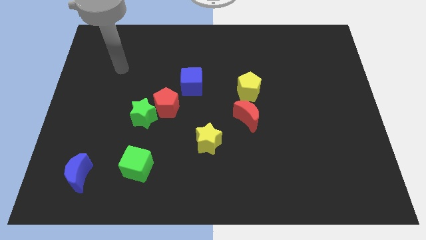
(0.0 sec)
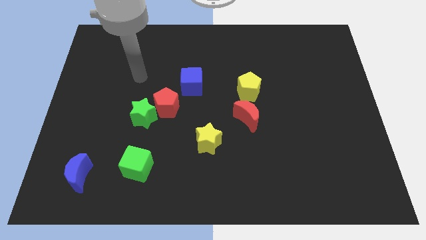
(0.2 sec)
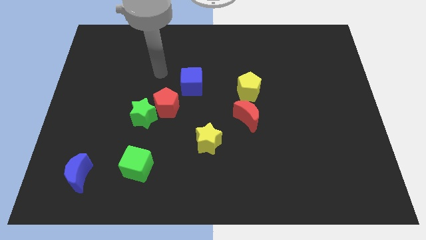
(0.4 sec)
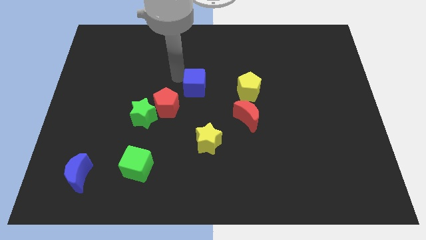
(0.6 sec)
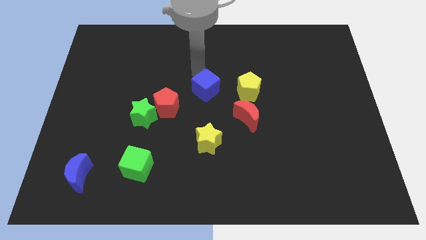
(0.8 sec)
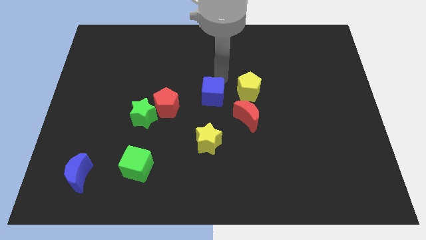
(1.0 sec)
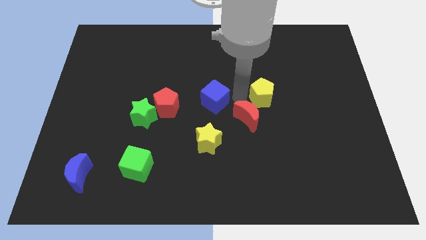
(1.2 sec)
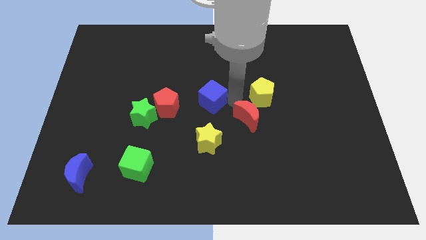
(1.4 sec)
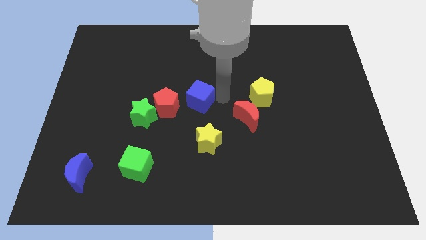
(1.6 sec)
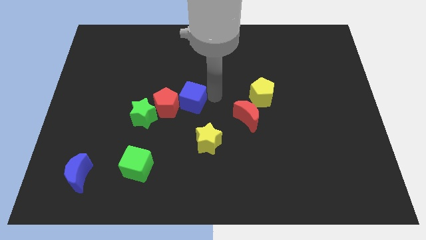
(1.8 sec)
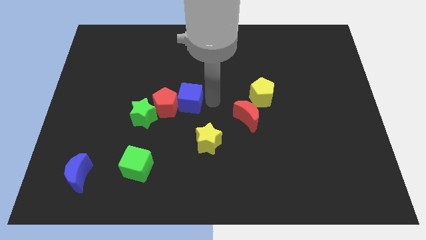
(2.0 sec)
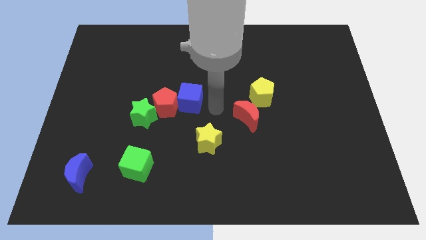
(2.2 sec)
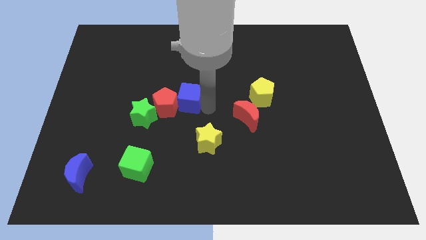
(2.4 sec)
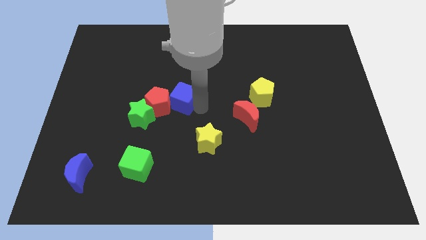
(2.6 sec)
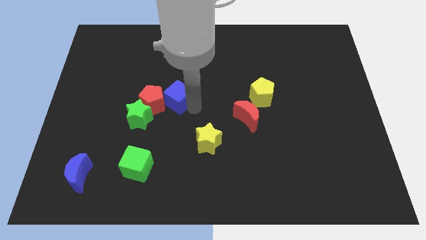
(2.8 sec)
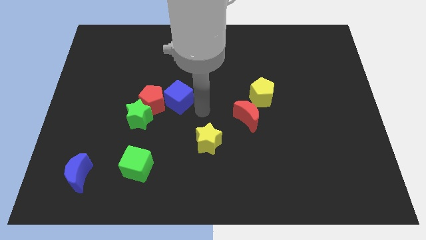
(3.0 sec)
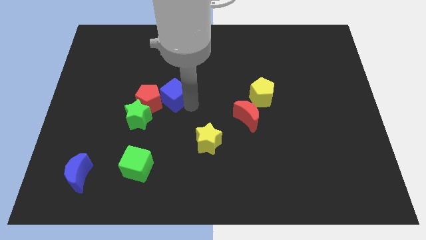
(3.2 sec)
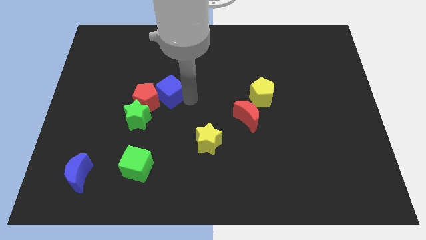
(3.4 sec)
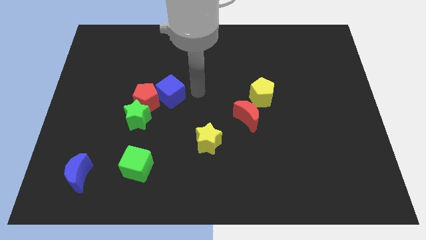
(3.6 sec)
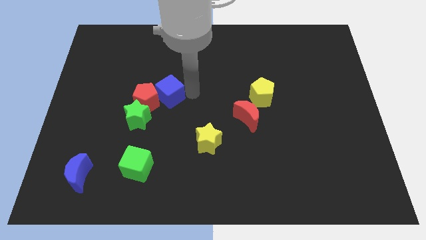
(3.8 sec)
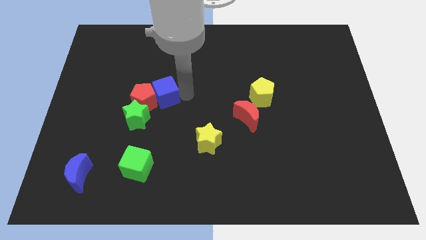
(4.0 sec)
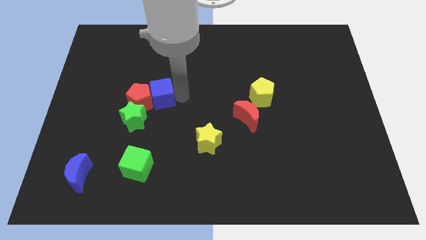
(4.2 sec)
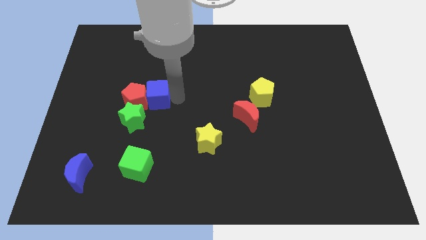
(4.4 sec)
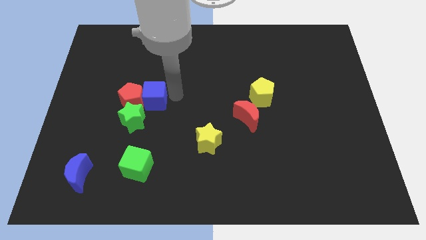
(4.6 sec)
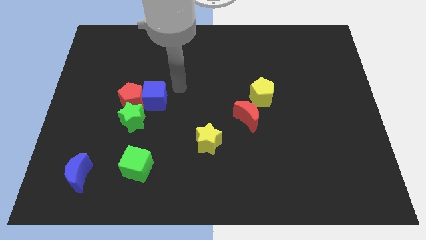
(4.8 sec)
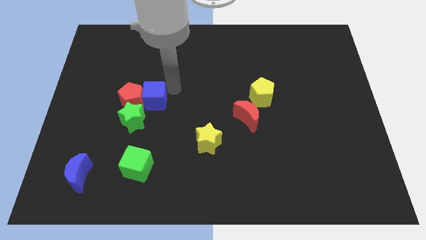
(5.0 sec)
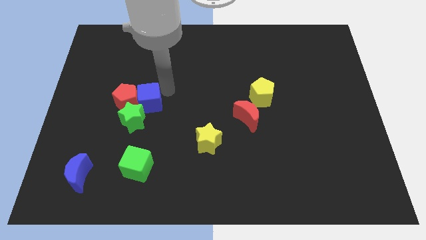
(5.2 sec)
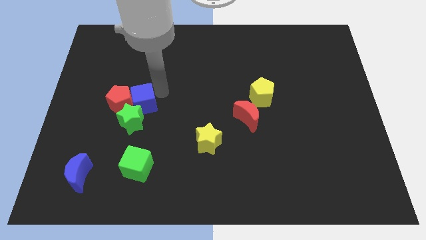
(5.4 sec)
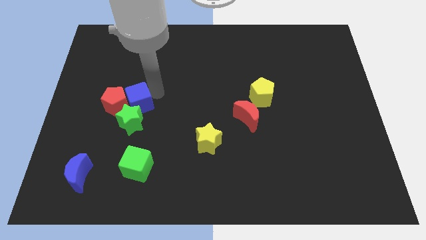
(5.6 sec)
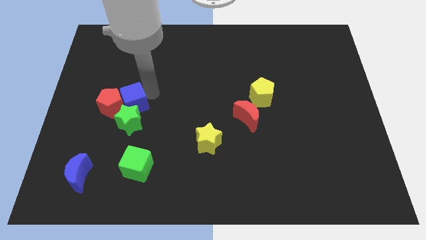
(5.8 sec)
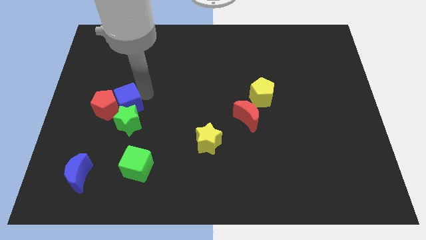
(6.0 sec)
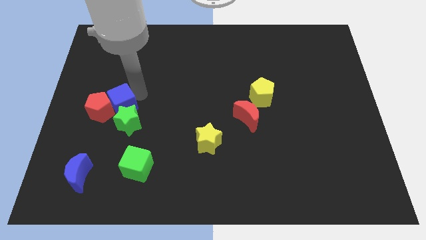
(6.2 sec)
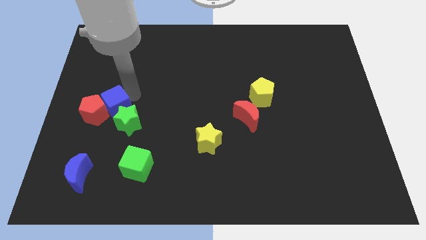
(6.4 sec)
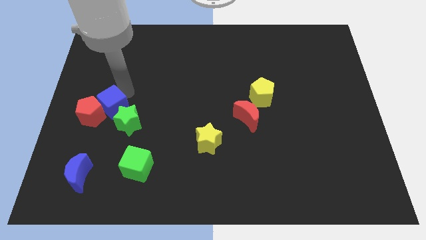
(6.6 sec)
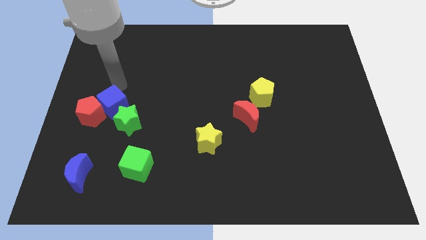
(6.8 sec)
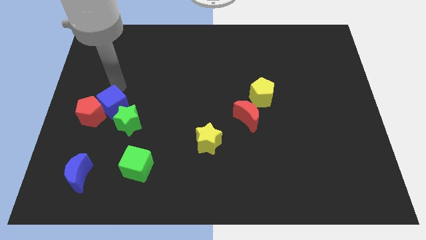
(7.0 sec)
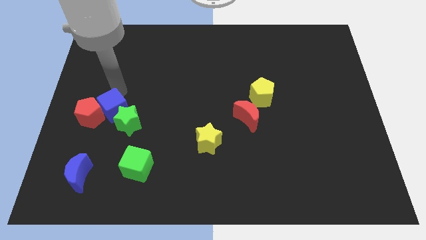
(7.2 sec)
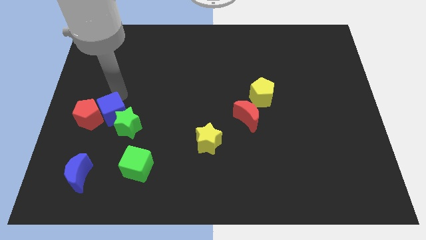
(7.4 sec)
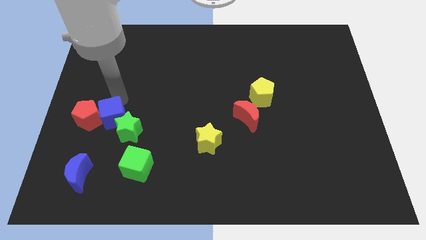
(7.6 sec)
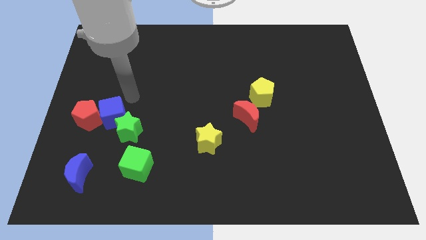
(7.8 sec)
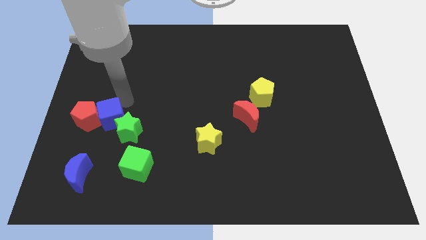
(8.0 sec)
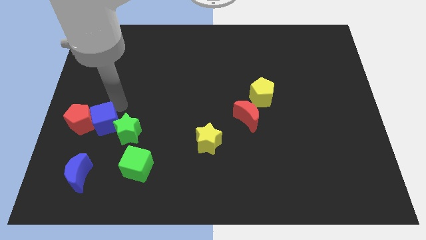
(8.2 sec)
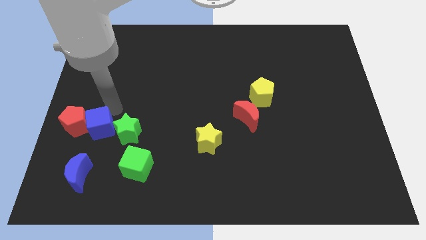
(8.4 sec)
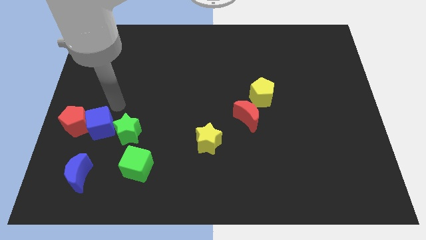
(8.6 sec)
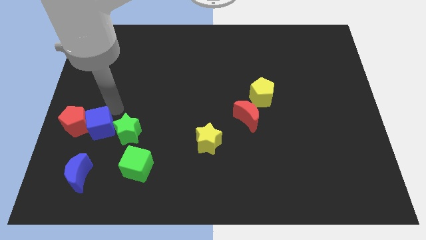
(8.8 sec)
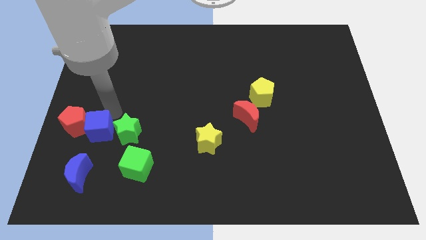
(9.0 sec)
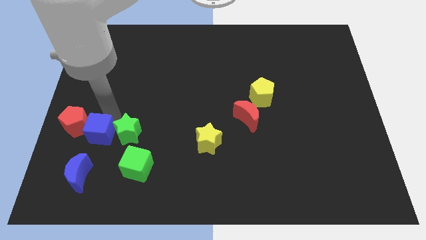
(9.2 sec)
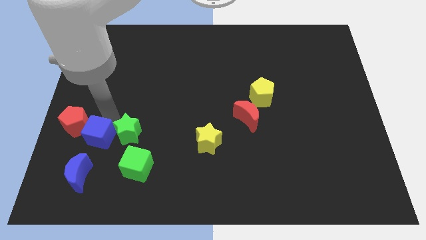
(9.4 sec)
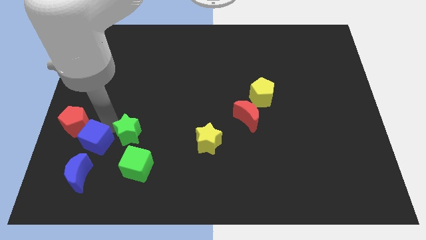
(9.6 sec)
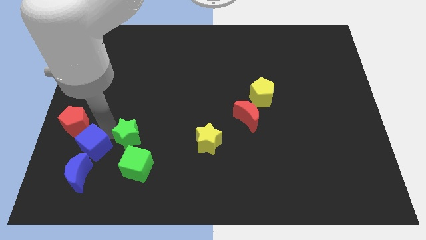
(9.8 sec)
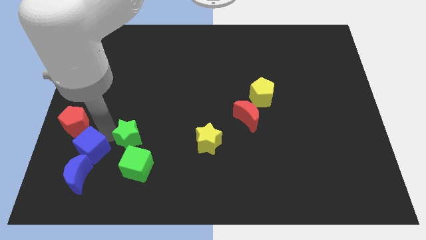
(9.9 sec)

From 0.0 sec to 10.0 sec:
move the blue cube to the left of the green cube

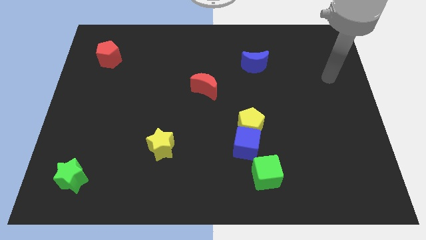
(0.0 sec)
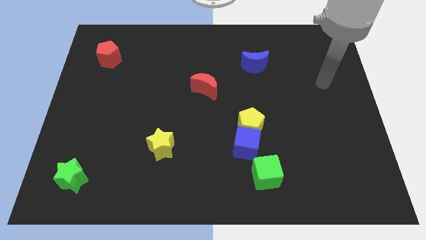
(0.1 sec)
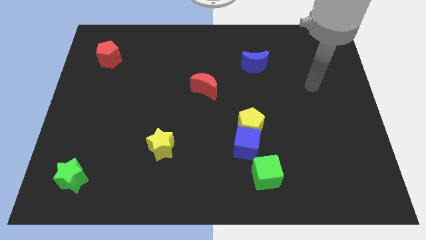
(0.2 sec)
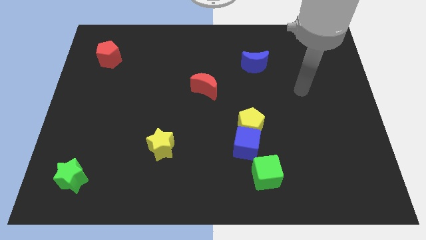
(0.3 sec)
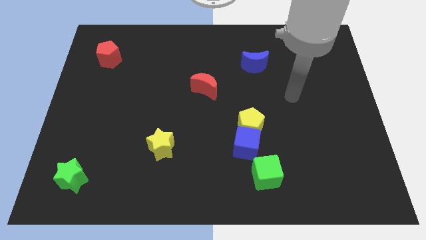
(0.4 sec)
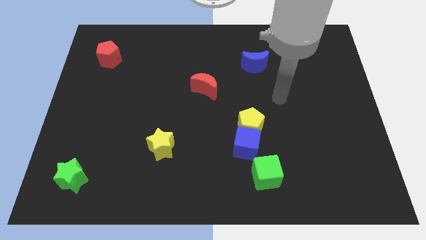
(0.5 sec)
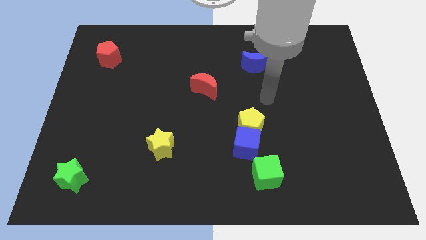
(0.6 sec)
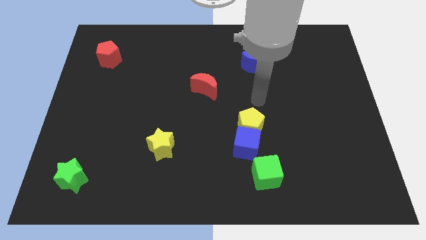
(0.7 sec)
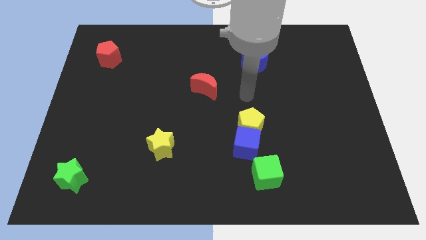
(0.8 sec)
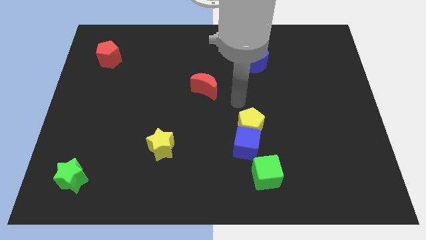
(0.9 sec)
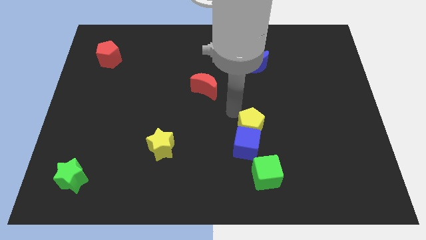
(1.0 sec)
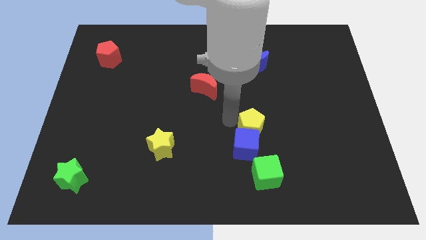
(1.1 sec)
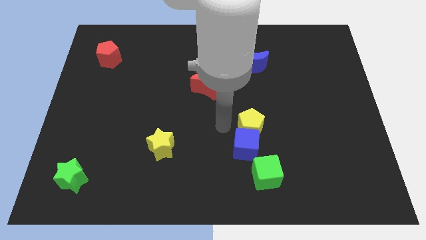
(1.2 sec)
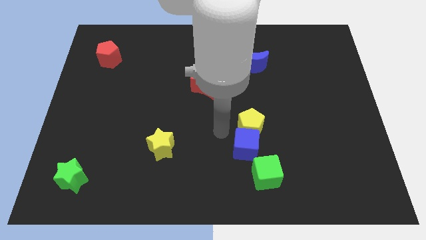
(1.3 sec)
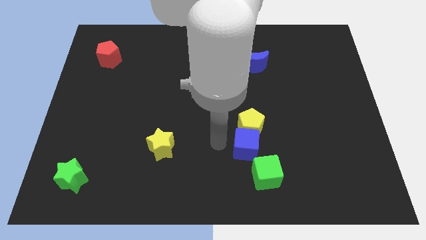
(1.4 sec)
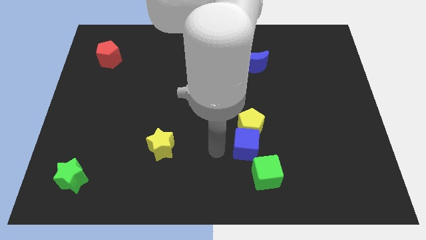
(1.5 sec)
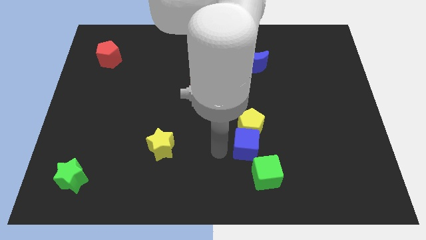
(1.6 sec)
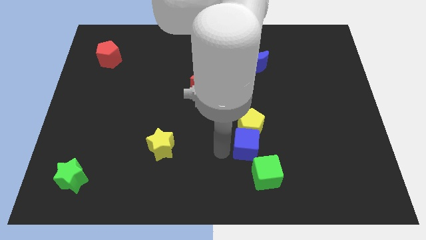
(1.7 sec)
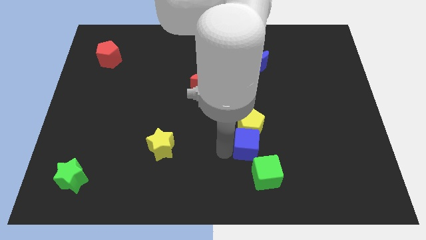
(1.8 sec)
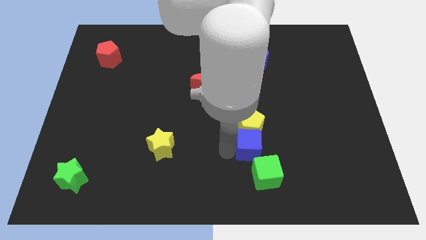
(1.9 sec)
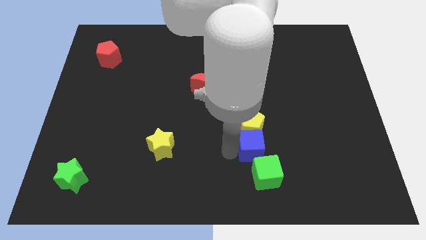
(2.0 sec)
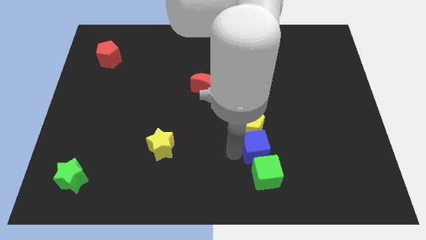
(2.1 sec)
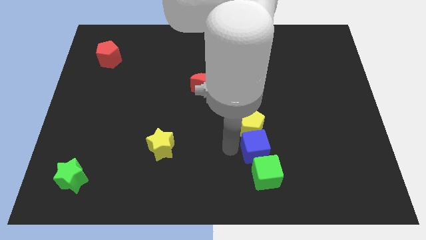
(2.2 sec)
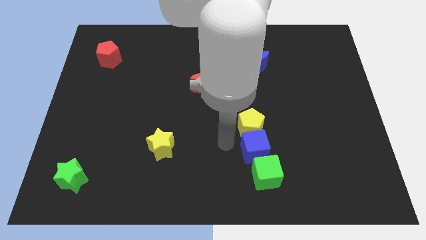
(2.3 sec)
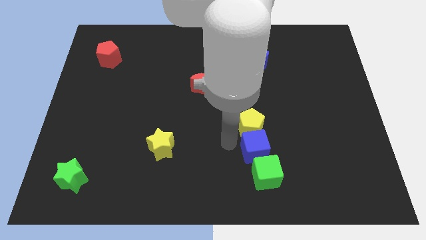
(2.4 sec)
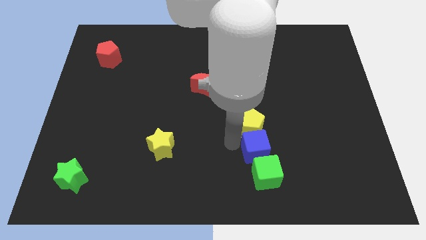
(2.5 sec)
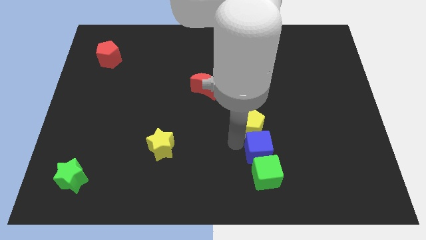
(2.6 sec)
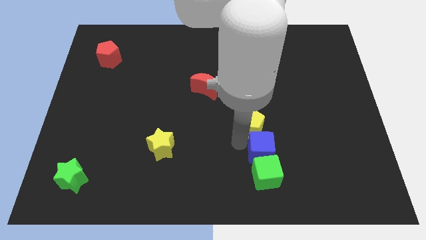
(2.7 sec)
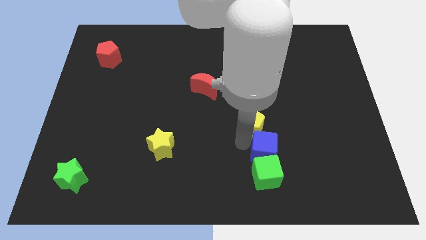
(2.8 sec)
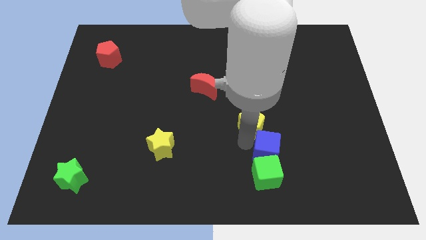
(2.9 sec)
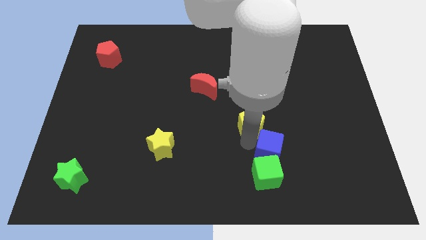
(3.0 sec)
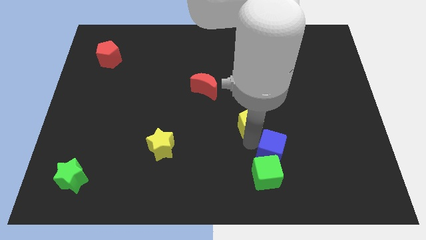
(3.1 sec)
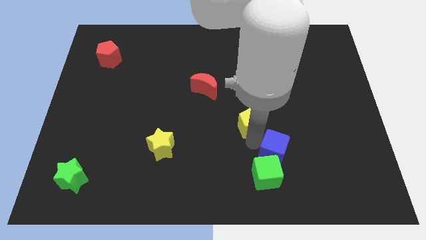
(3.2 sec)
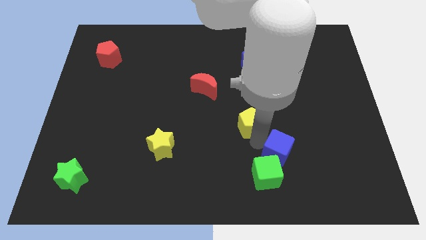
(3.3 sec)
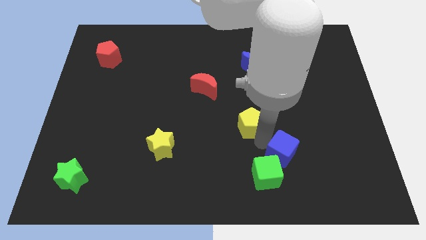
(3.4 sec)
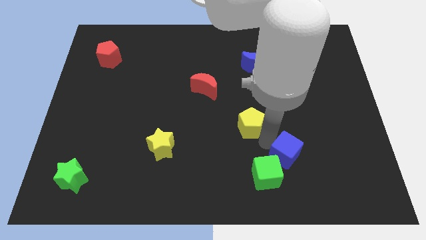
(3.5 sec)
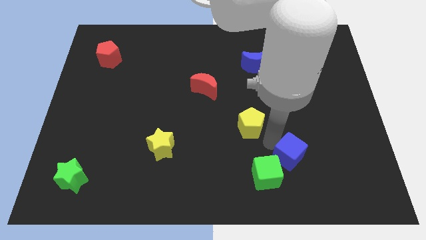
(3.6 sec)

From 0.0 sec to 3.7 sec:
slide the blue cube to the right of the green cube
